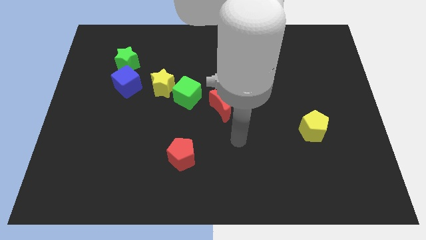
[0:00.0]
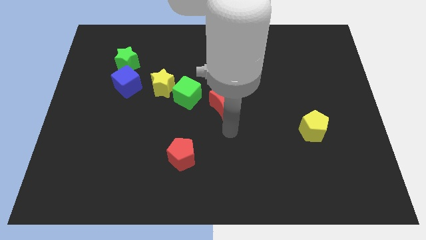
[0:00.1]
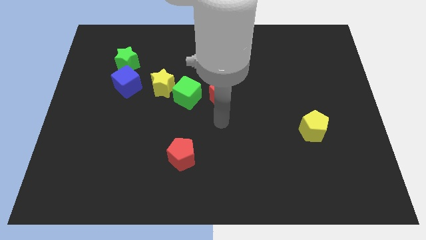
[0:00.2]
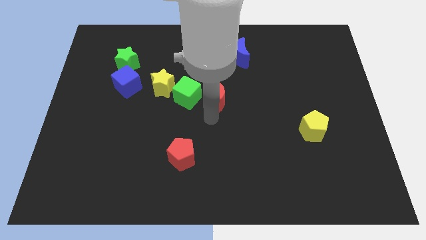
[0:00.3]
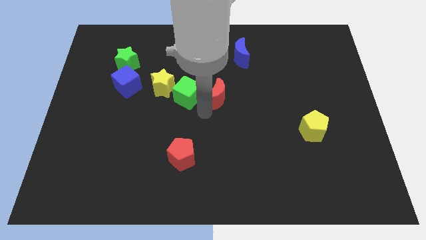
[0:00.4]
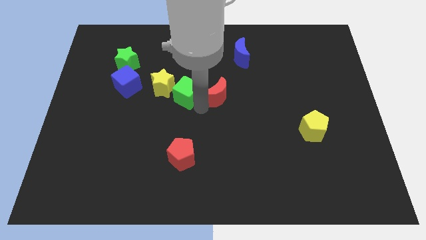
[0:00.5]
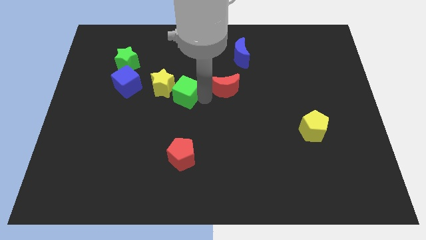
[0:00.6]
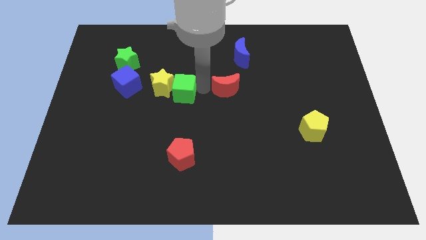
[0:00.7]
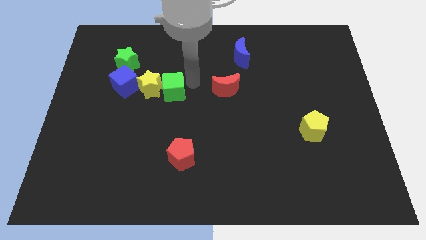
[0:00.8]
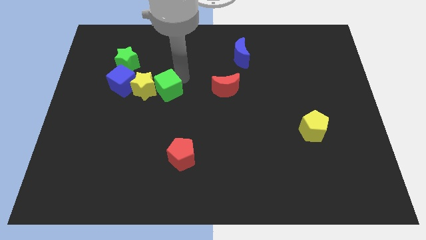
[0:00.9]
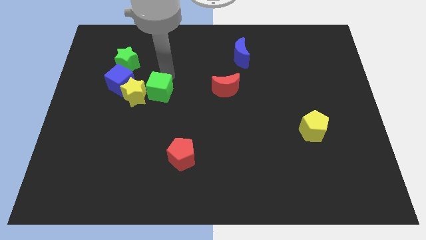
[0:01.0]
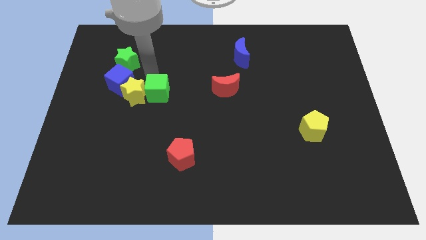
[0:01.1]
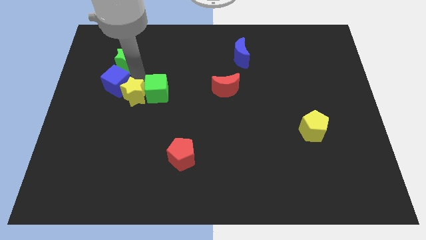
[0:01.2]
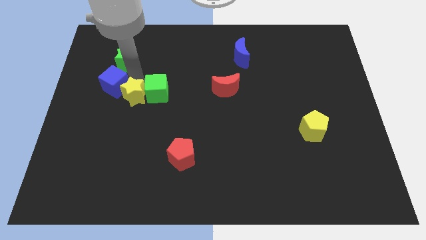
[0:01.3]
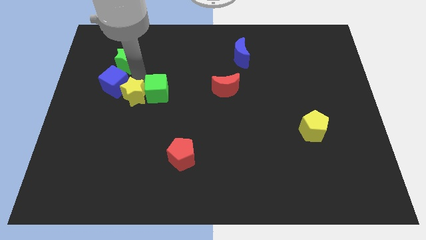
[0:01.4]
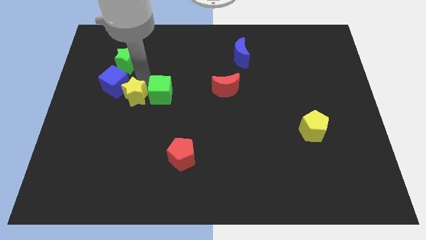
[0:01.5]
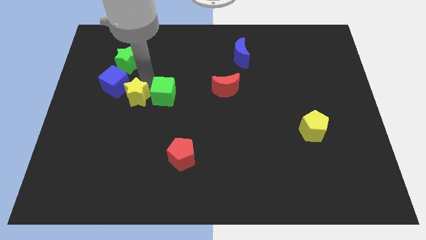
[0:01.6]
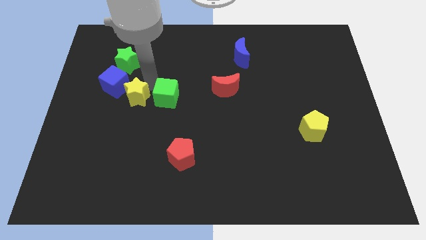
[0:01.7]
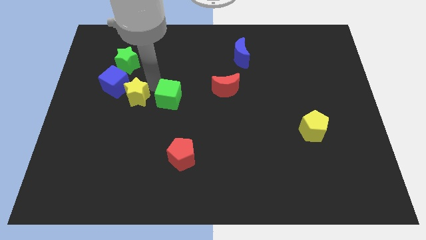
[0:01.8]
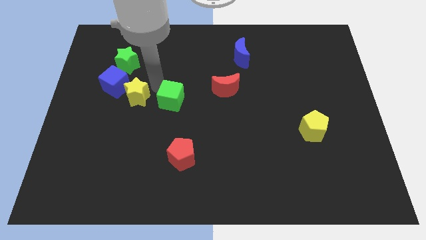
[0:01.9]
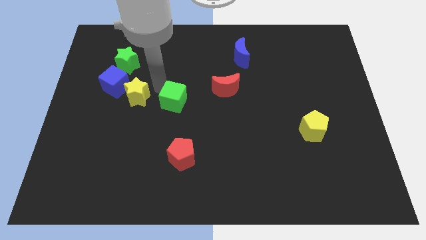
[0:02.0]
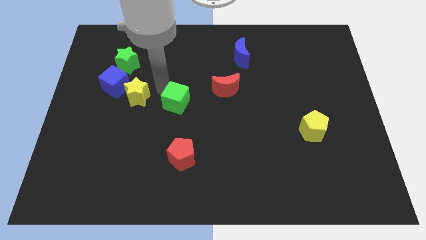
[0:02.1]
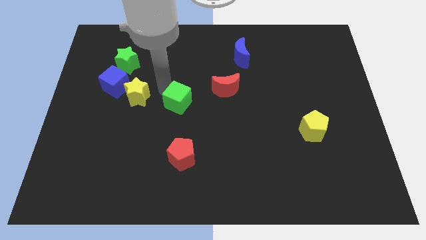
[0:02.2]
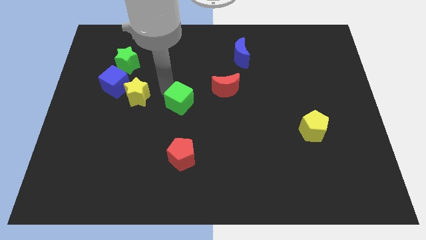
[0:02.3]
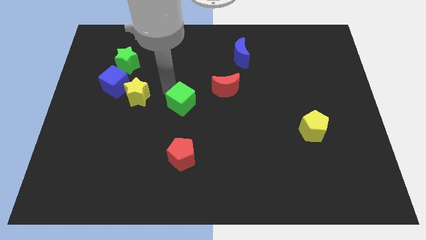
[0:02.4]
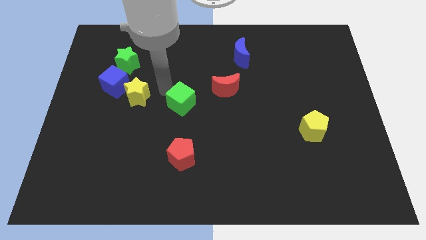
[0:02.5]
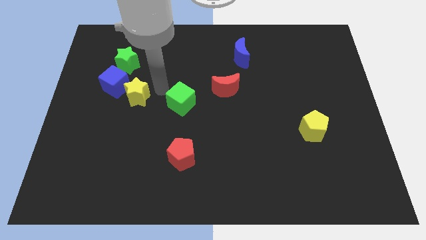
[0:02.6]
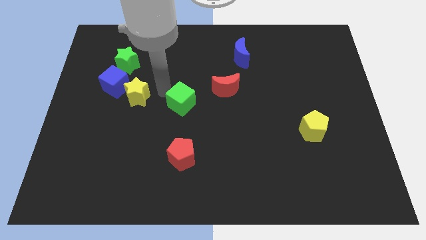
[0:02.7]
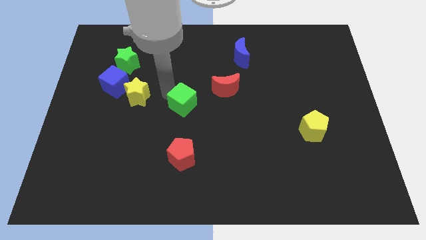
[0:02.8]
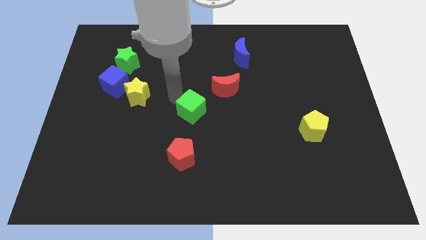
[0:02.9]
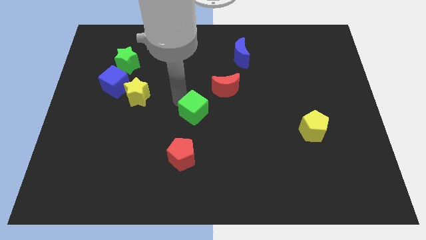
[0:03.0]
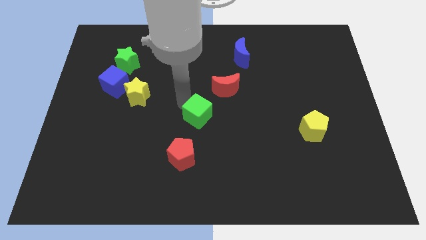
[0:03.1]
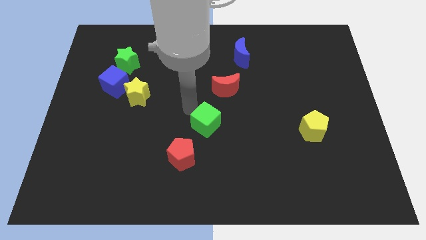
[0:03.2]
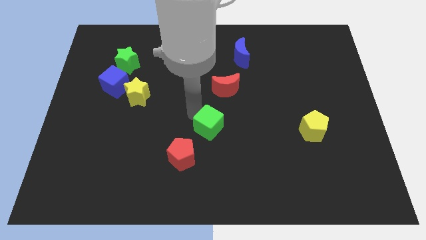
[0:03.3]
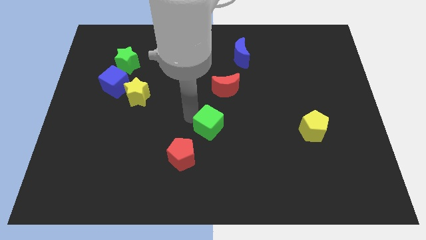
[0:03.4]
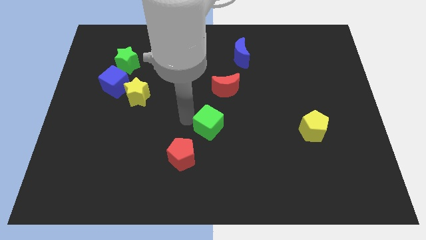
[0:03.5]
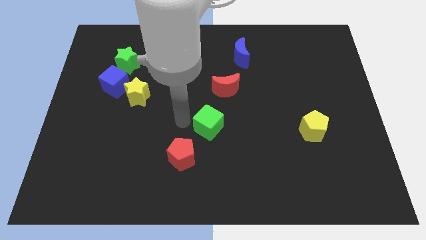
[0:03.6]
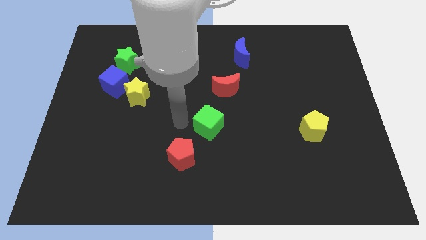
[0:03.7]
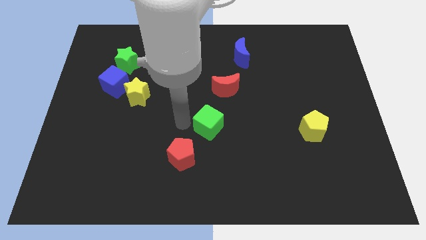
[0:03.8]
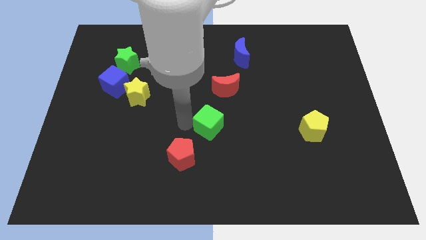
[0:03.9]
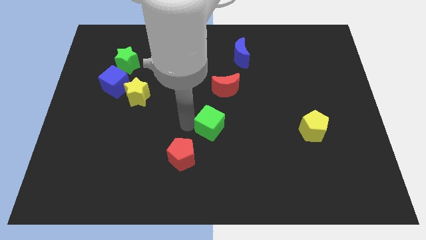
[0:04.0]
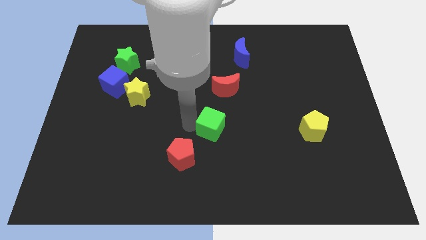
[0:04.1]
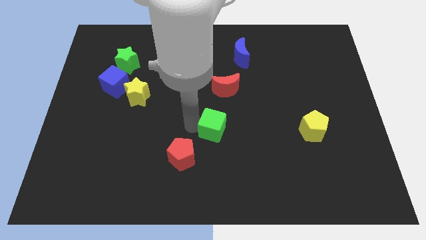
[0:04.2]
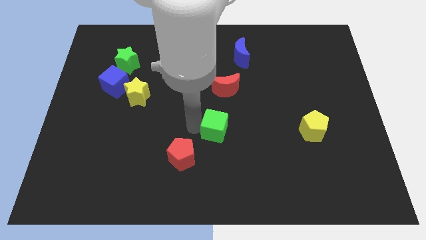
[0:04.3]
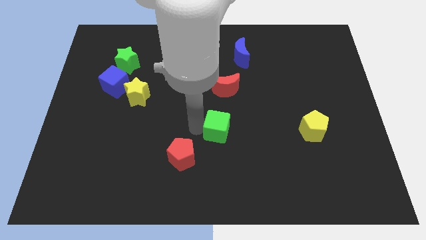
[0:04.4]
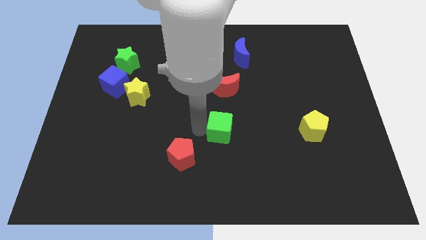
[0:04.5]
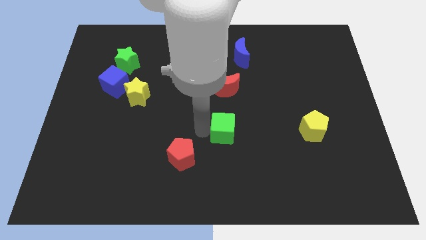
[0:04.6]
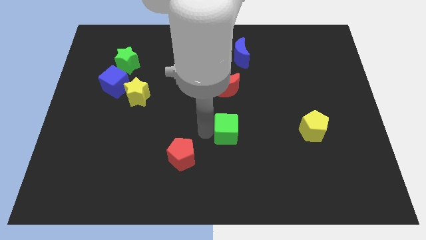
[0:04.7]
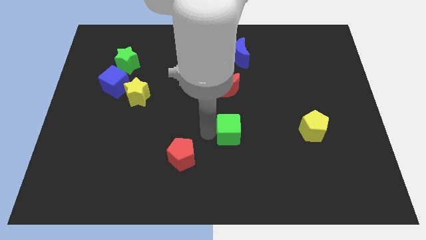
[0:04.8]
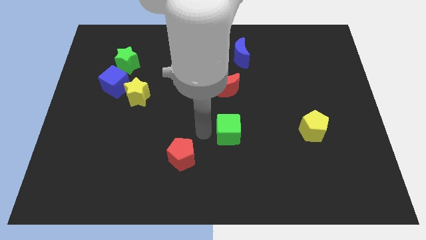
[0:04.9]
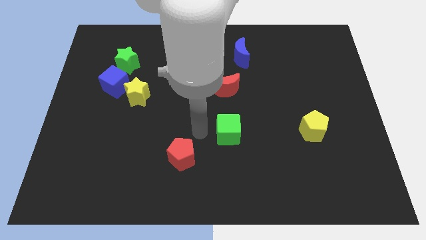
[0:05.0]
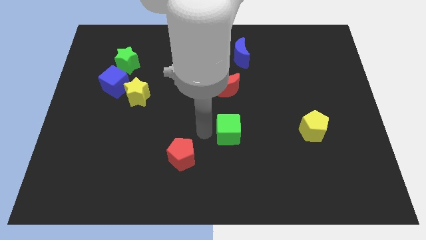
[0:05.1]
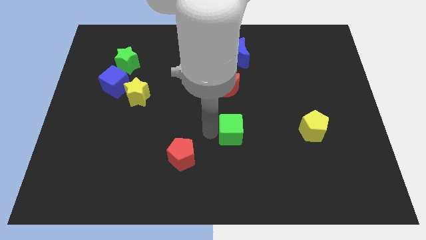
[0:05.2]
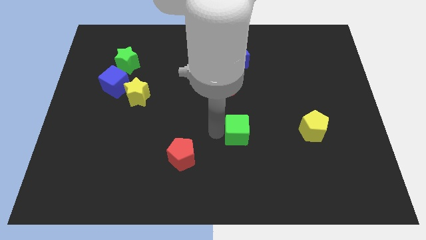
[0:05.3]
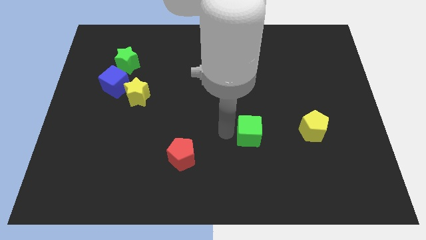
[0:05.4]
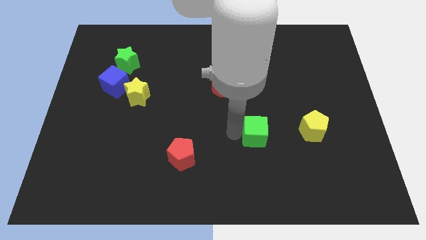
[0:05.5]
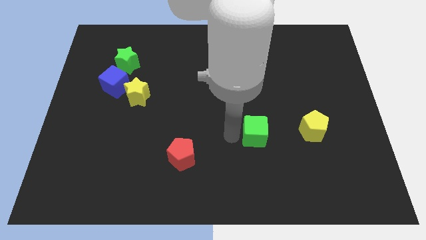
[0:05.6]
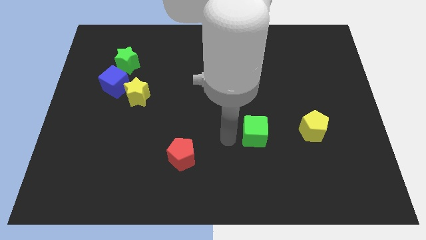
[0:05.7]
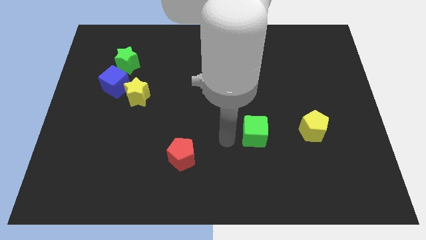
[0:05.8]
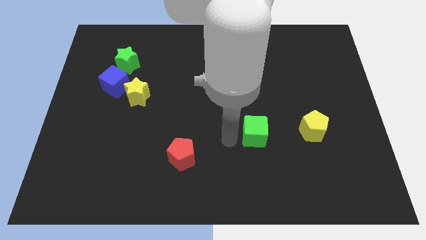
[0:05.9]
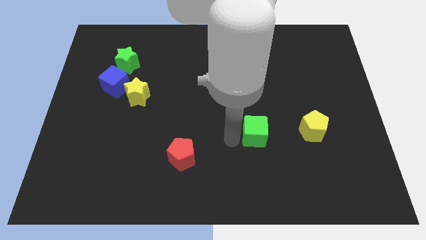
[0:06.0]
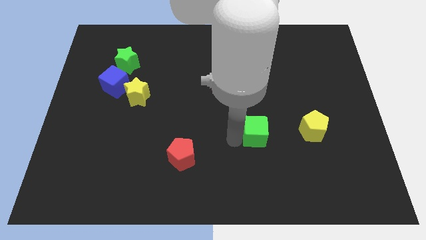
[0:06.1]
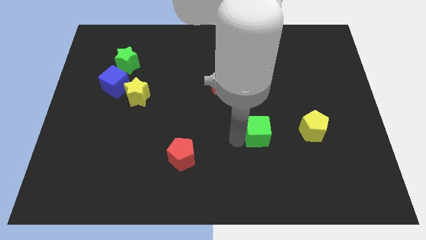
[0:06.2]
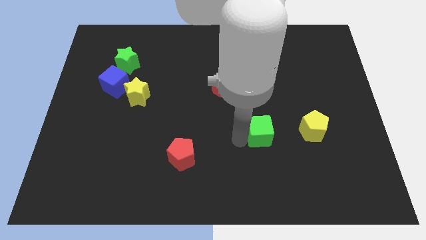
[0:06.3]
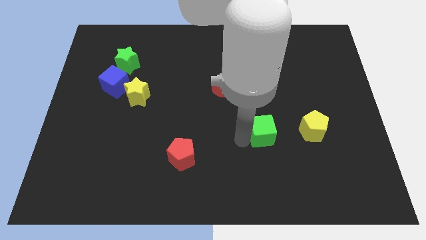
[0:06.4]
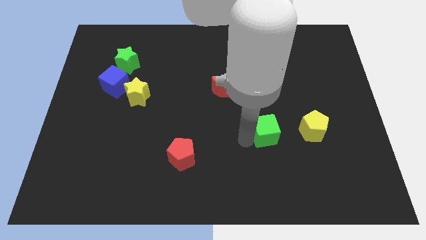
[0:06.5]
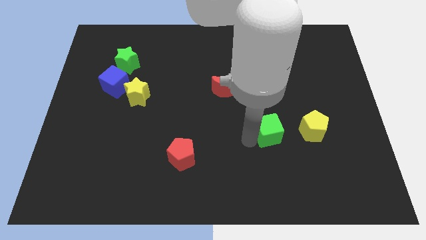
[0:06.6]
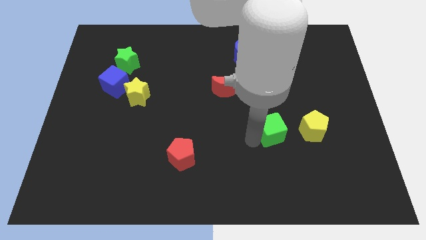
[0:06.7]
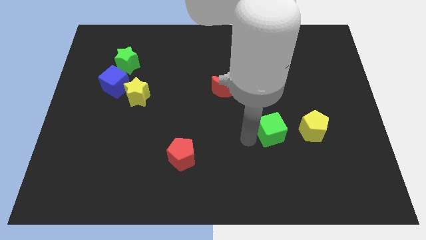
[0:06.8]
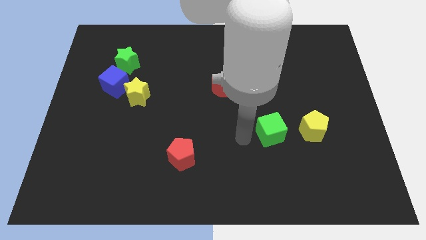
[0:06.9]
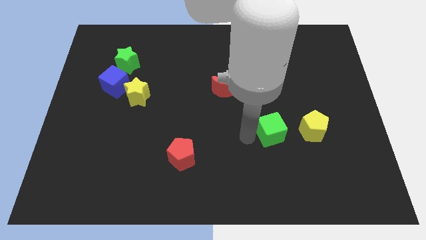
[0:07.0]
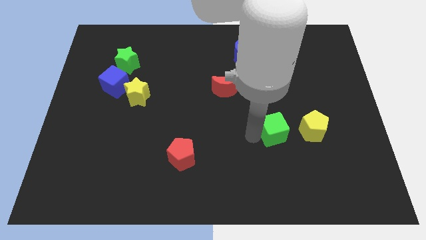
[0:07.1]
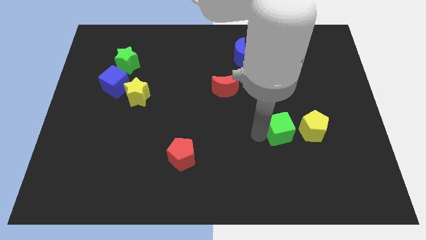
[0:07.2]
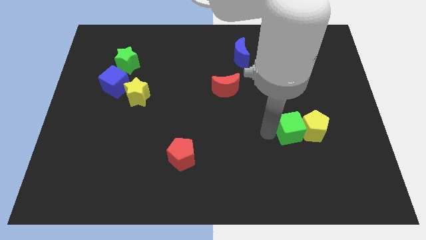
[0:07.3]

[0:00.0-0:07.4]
move the green cube towards the yellow pentagon
